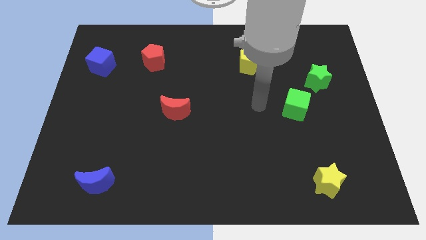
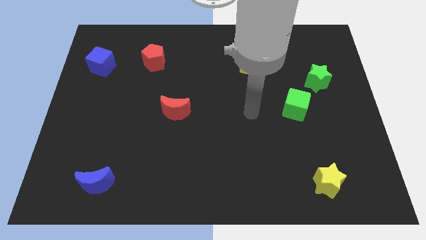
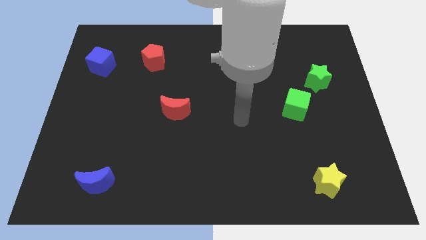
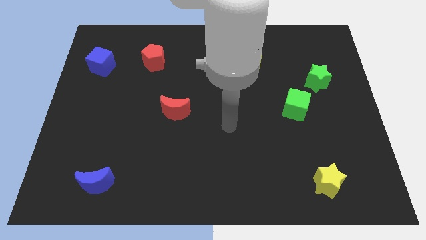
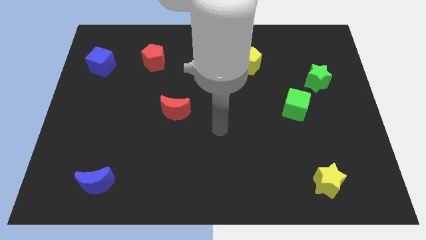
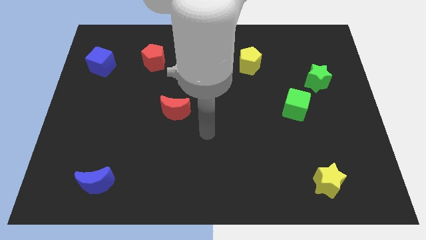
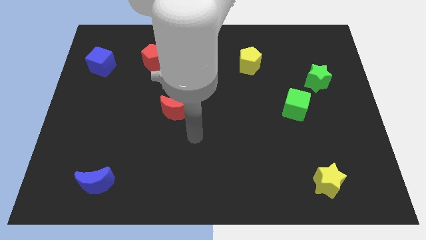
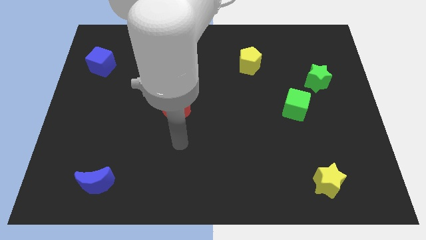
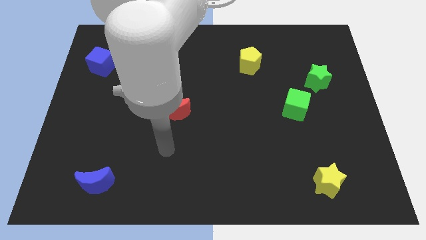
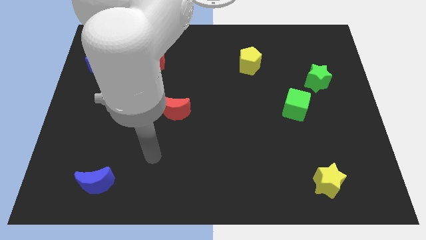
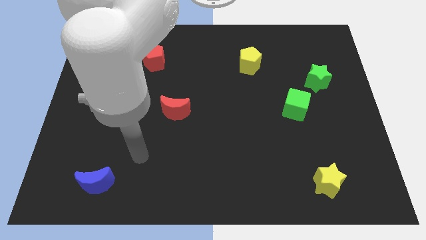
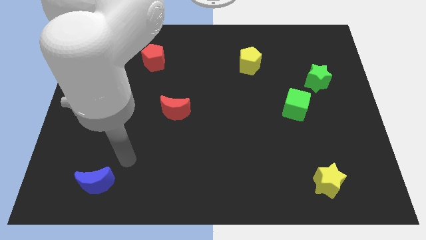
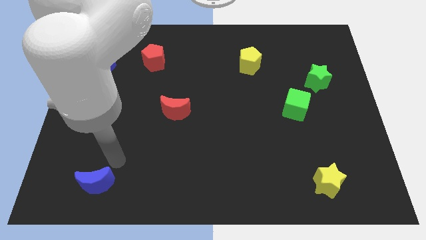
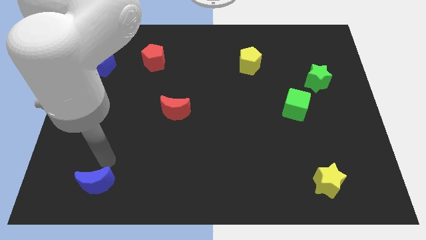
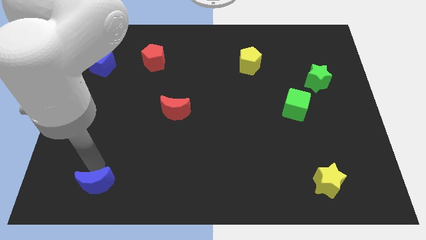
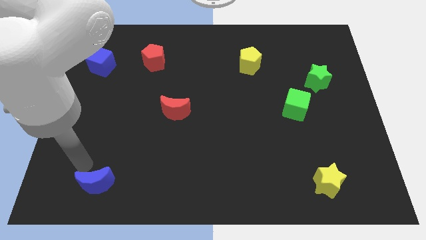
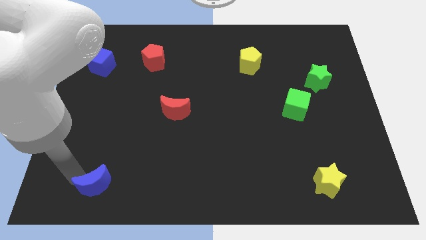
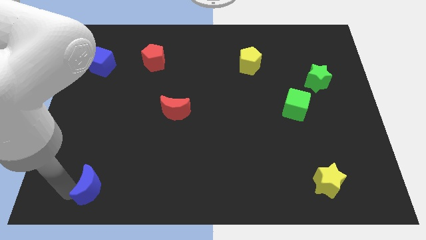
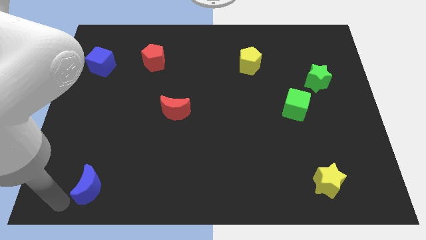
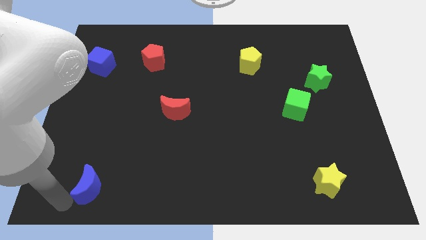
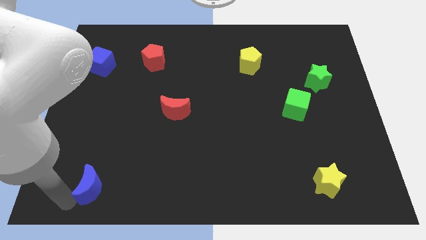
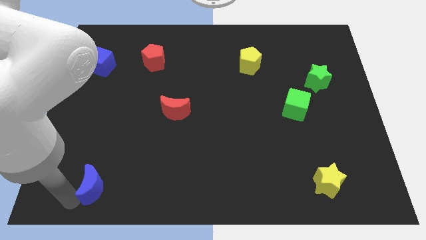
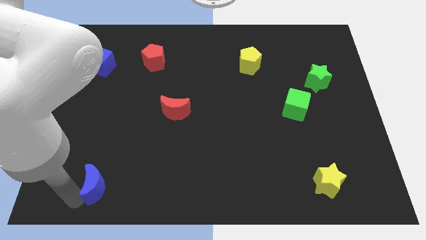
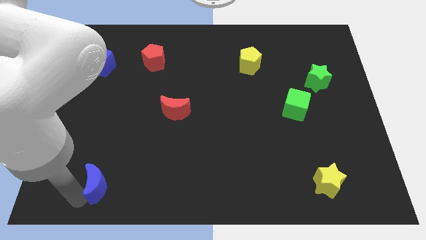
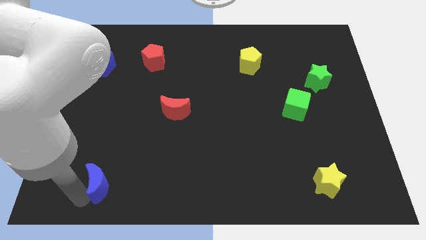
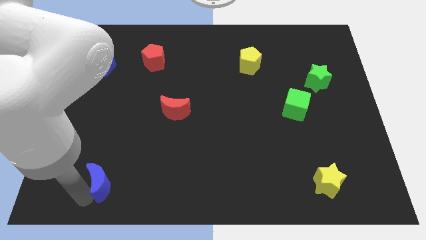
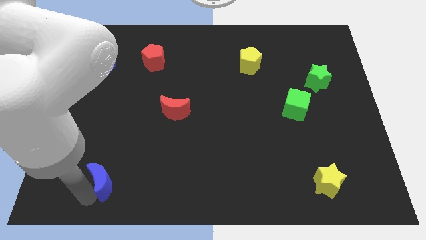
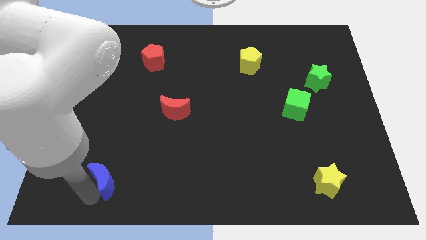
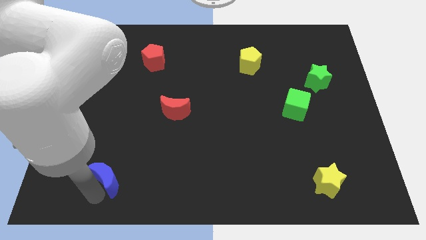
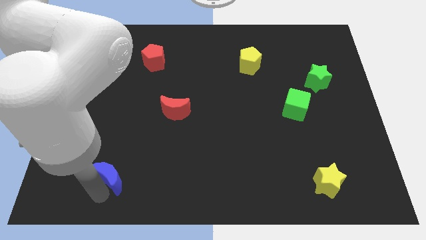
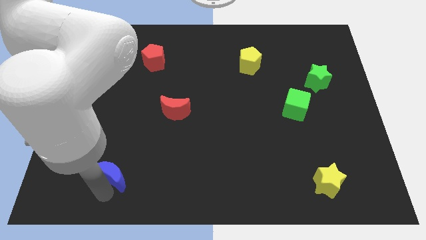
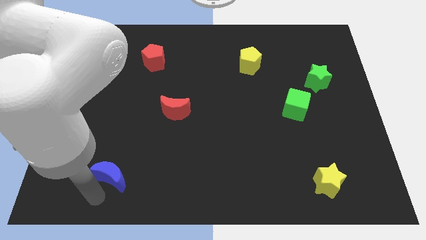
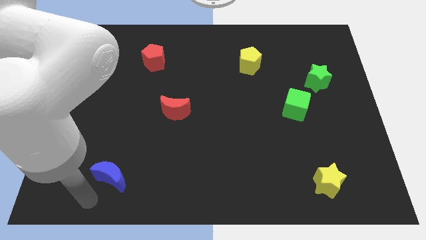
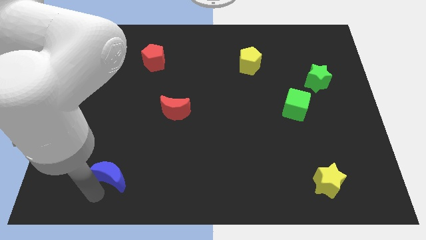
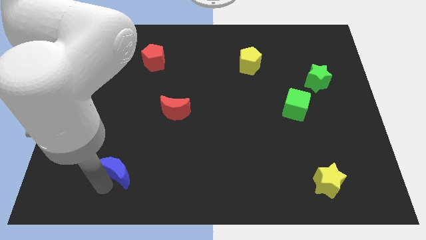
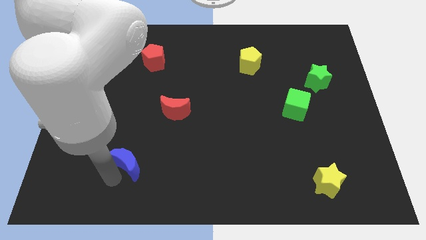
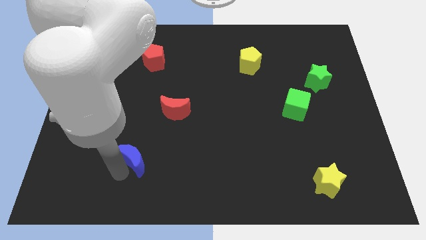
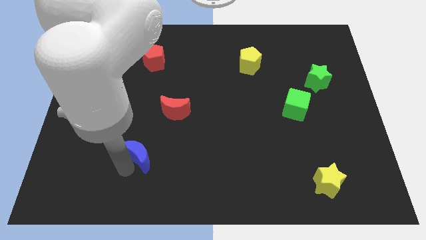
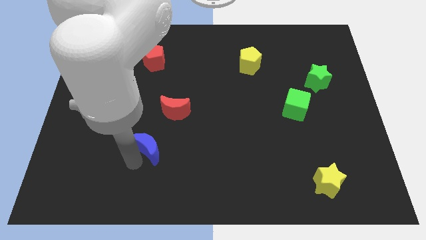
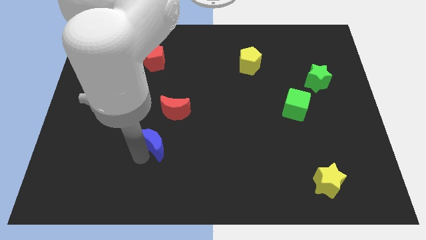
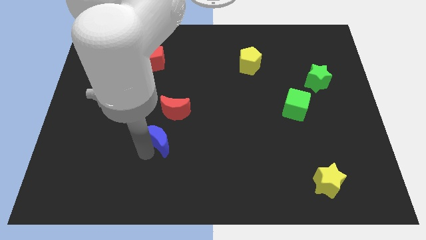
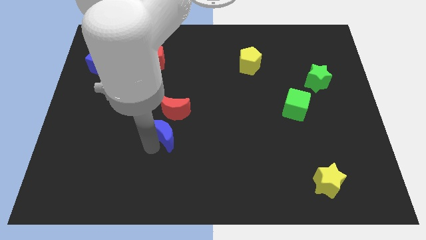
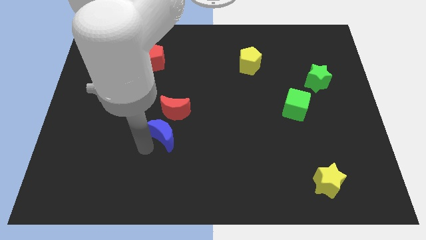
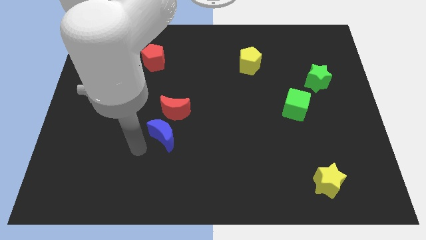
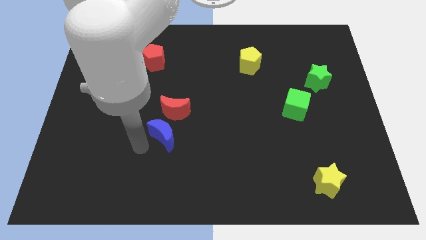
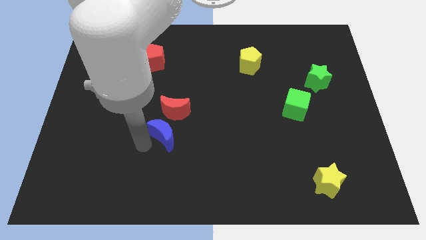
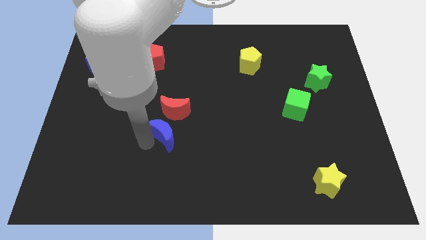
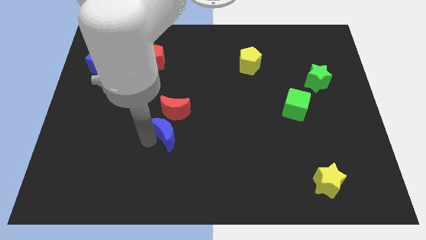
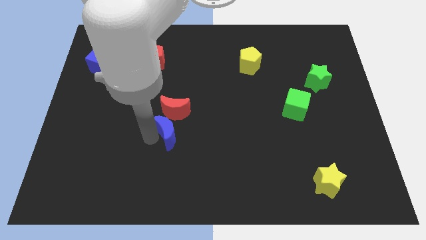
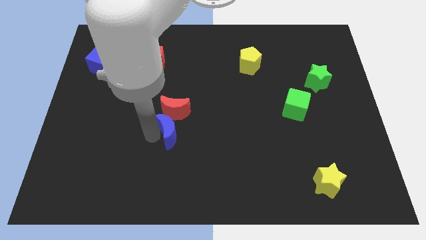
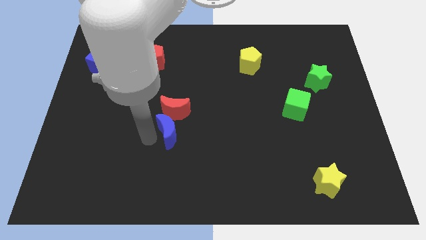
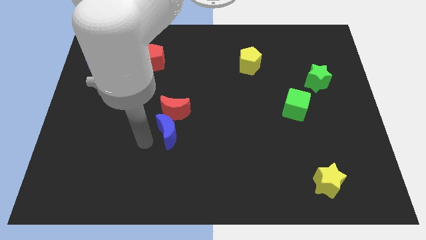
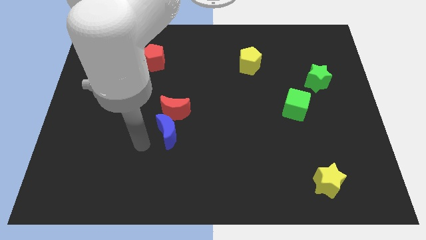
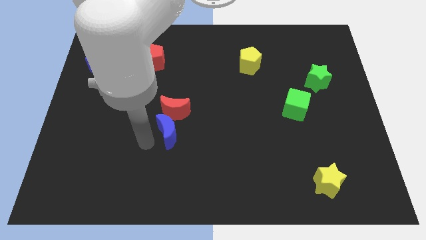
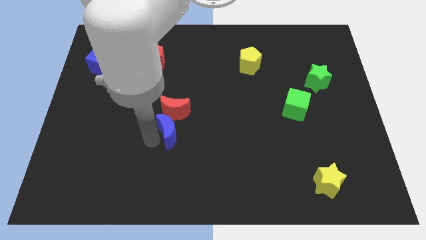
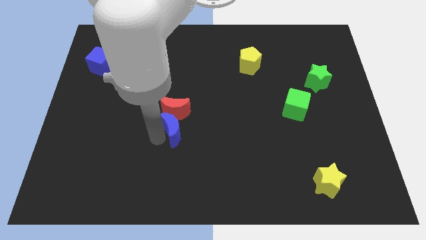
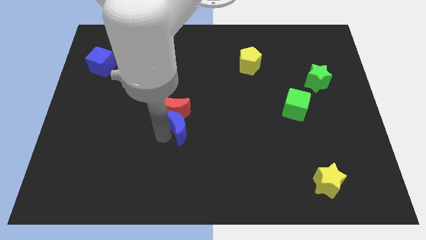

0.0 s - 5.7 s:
slide the blue moon diagonally upwards and to the right

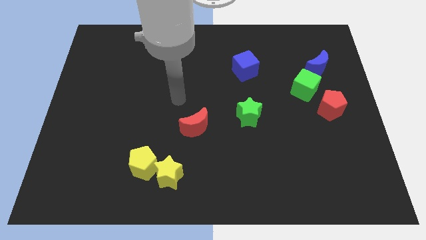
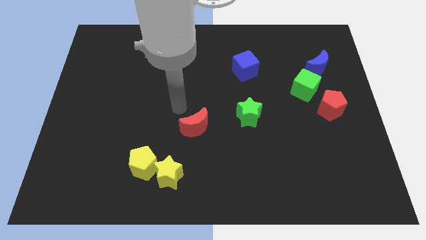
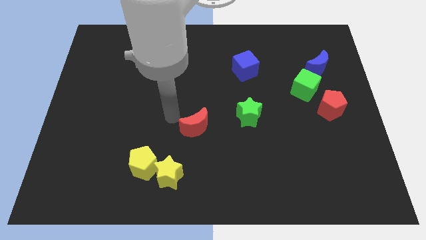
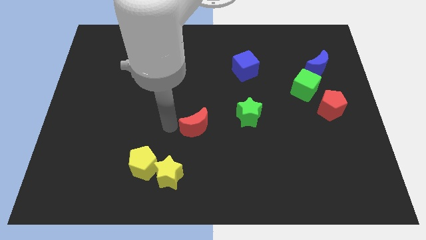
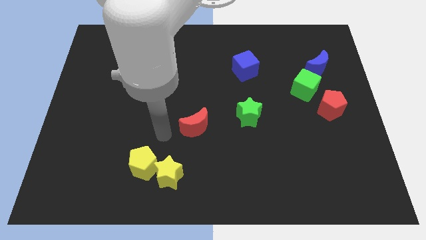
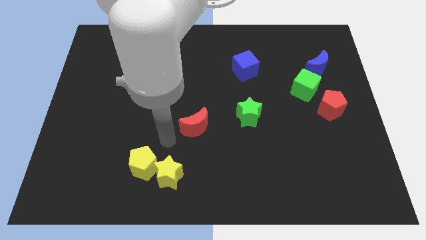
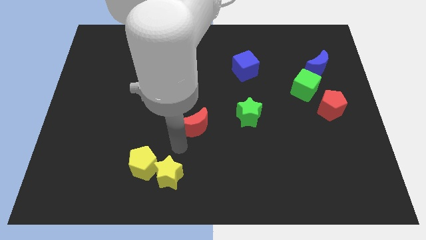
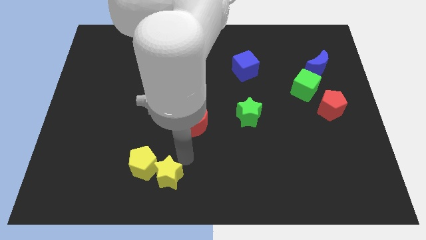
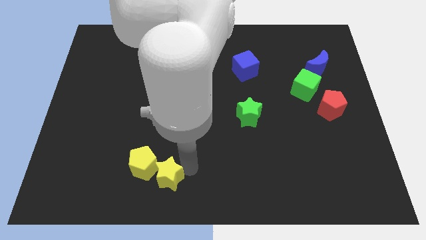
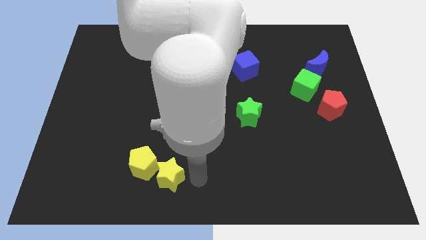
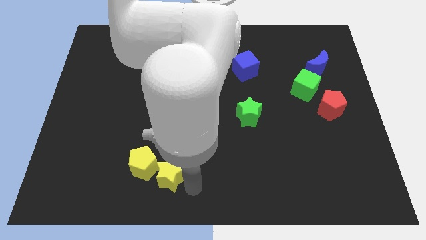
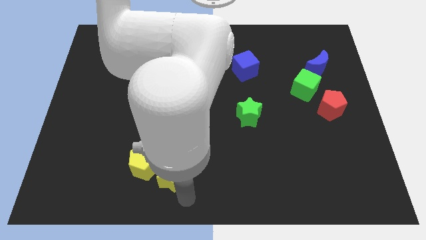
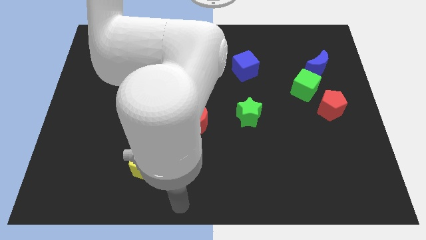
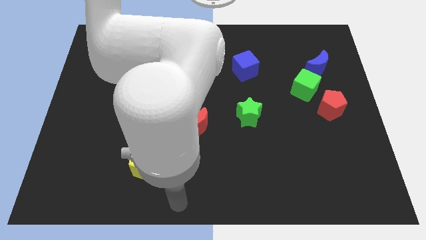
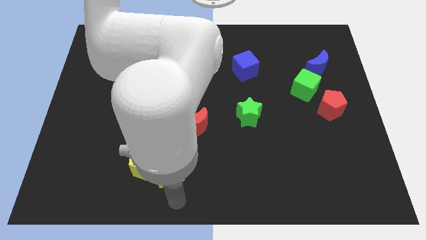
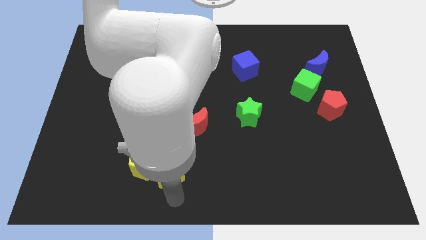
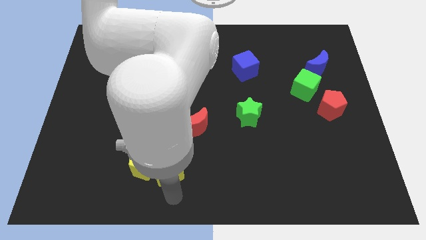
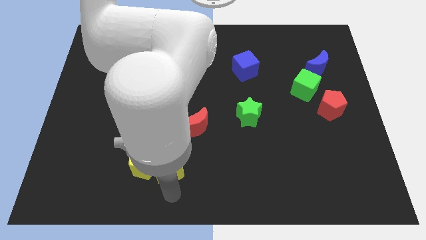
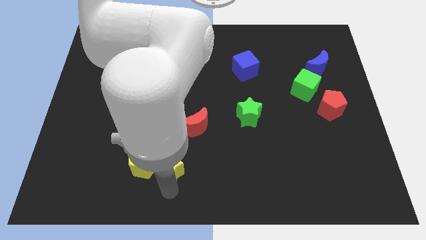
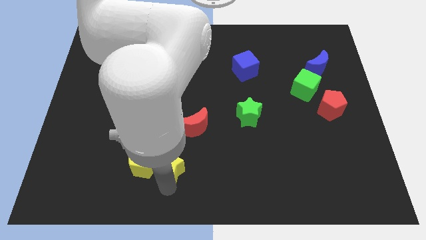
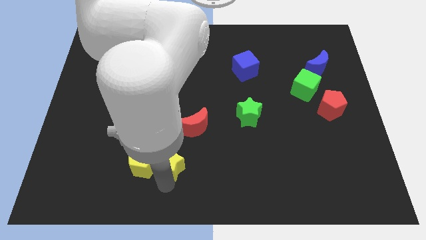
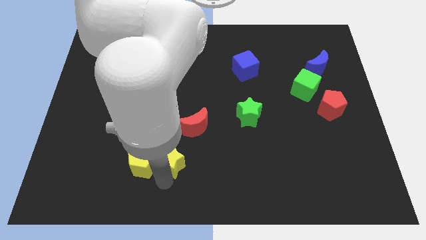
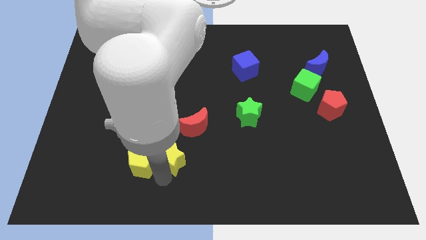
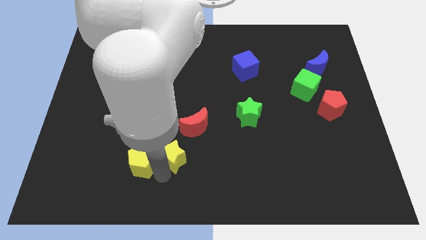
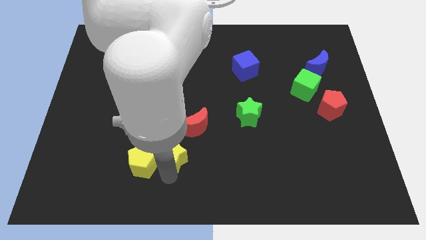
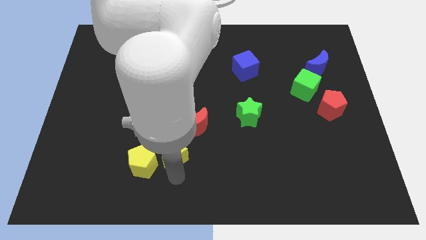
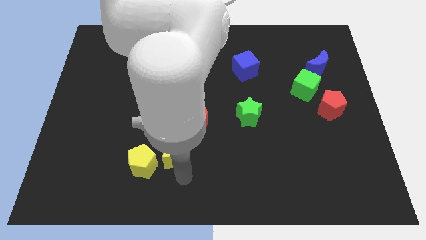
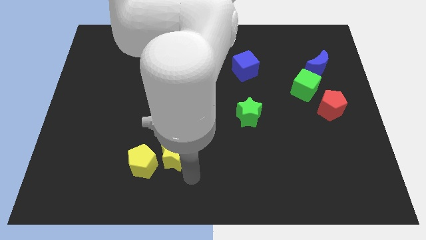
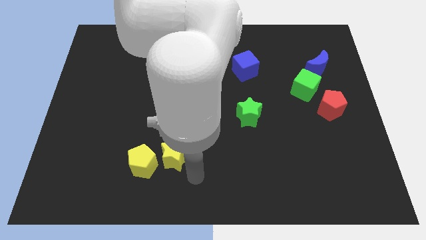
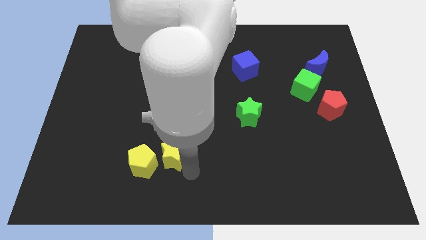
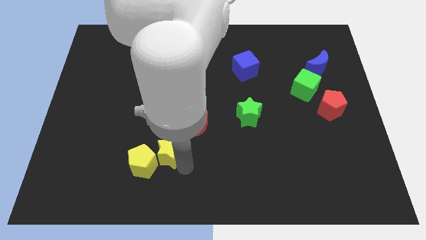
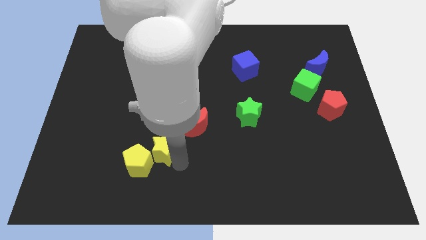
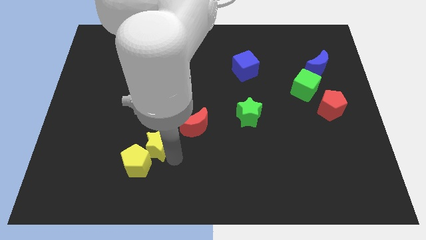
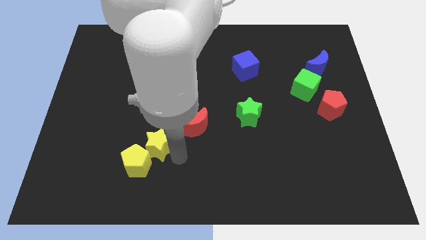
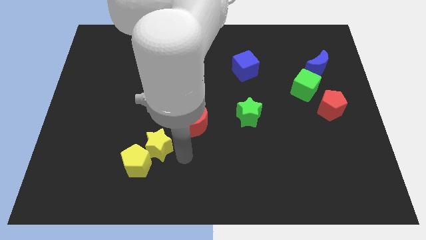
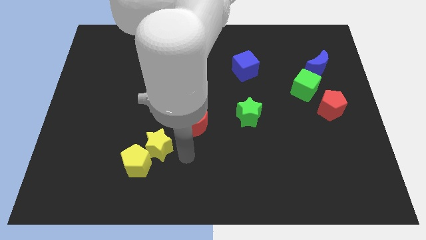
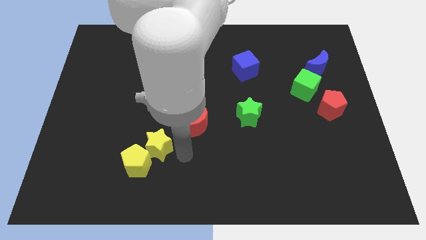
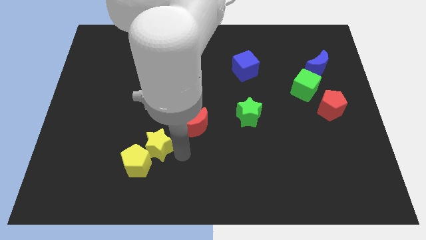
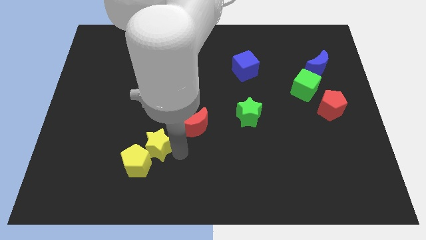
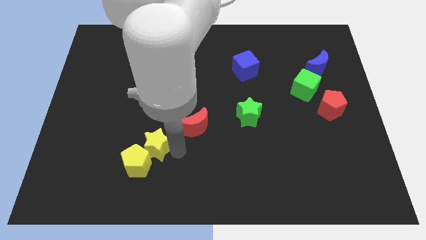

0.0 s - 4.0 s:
slightly move the yellow star up and to the left diagonally
